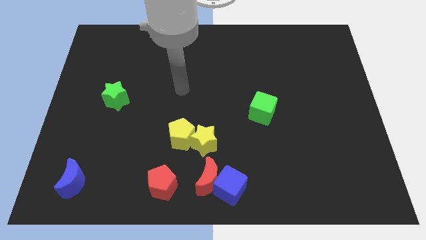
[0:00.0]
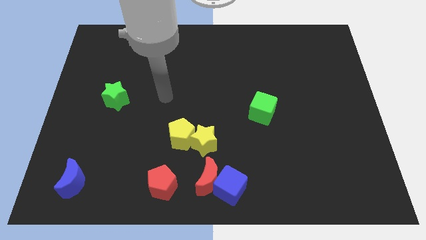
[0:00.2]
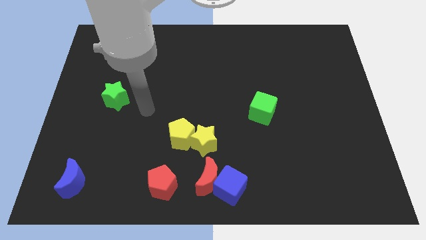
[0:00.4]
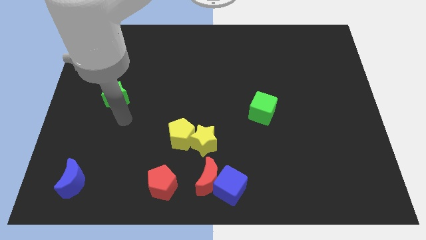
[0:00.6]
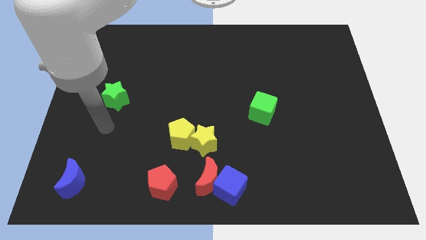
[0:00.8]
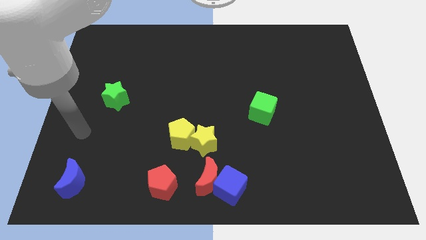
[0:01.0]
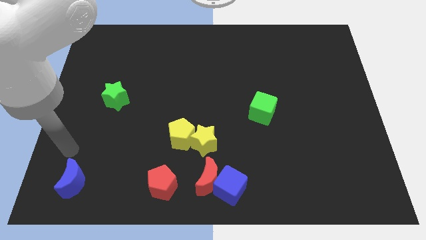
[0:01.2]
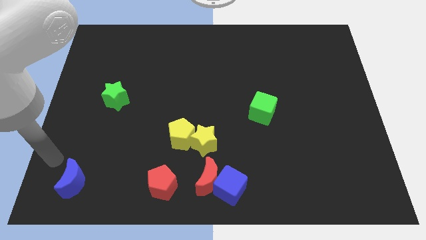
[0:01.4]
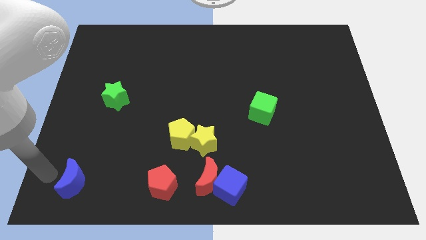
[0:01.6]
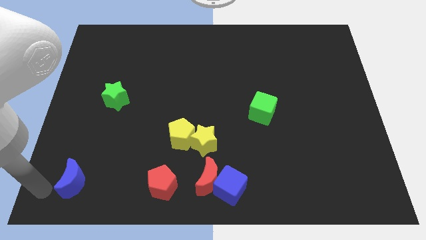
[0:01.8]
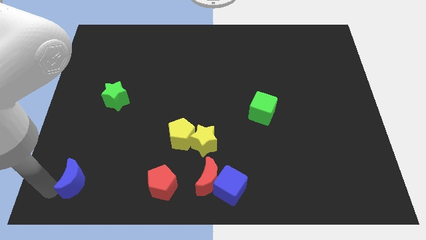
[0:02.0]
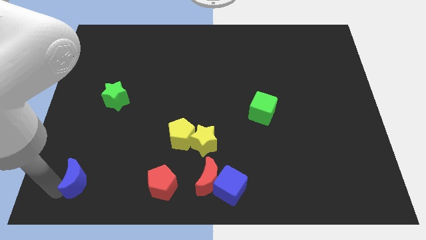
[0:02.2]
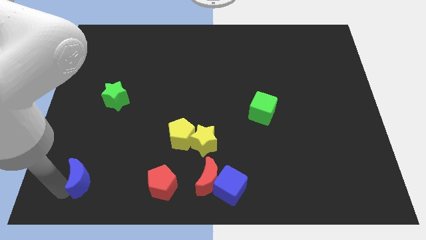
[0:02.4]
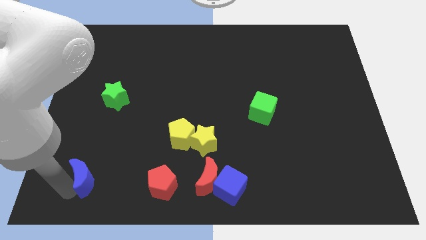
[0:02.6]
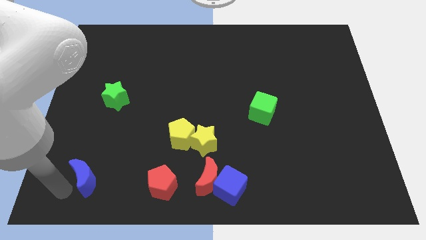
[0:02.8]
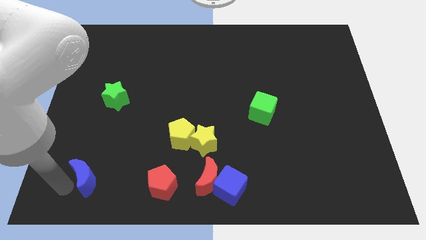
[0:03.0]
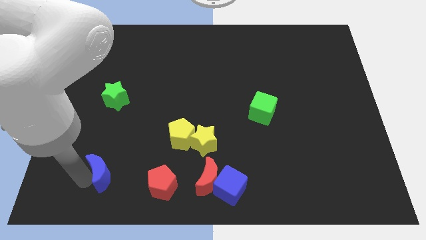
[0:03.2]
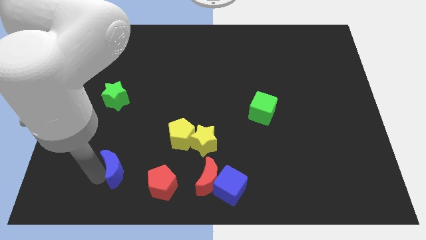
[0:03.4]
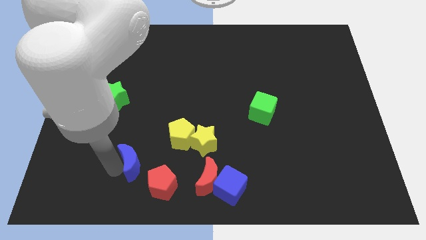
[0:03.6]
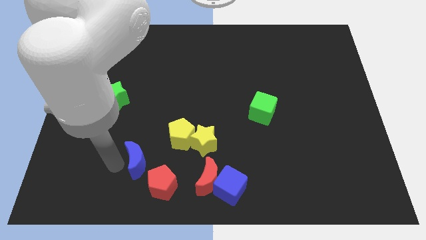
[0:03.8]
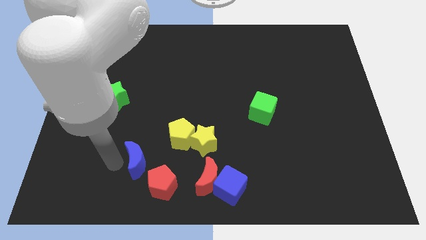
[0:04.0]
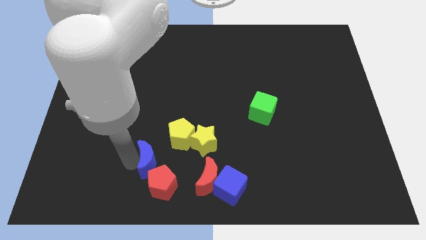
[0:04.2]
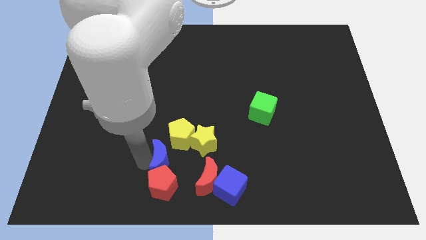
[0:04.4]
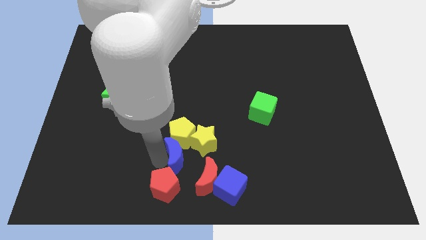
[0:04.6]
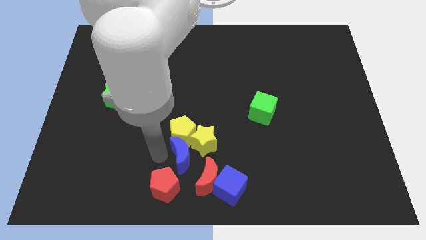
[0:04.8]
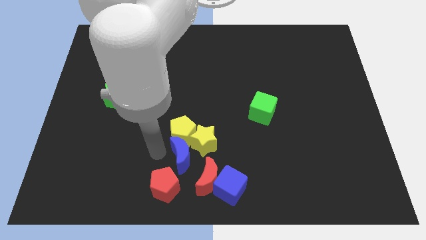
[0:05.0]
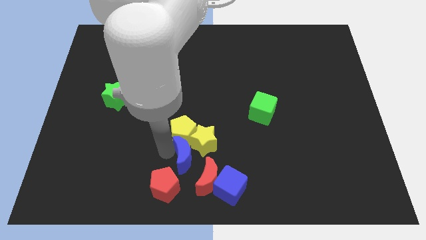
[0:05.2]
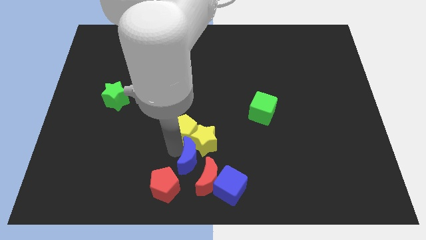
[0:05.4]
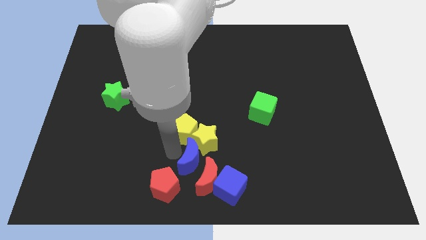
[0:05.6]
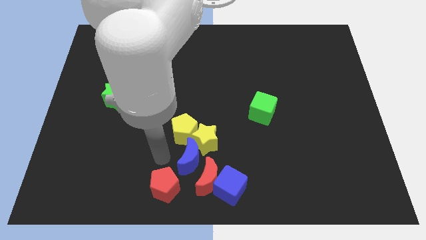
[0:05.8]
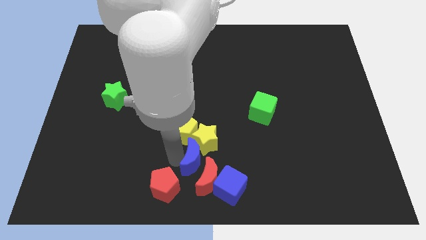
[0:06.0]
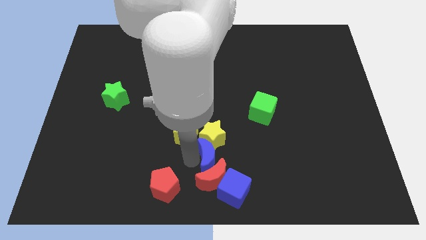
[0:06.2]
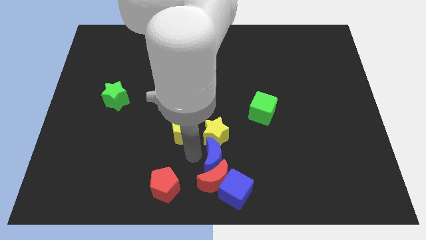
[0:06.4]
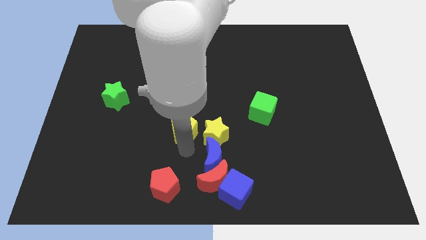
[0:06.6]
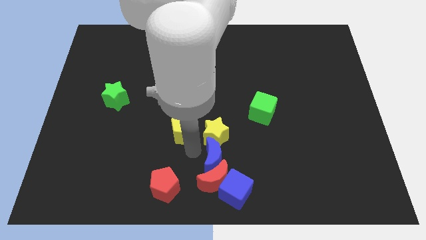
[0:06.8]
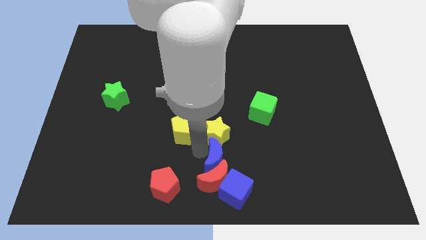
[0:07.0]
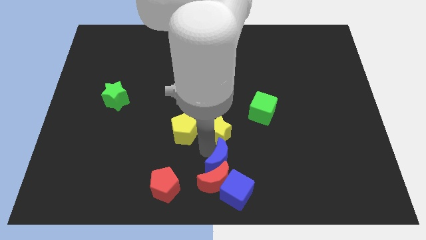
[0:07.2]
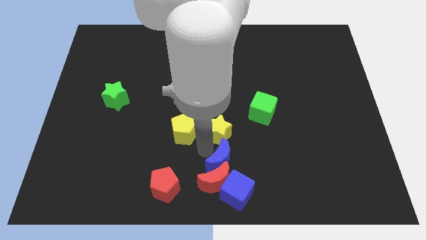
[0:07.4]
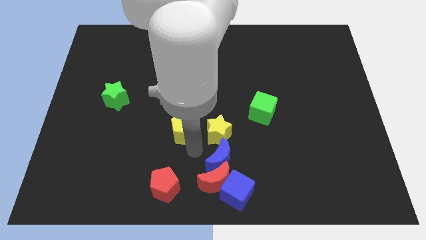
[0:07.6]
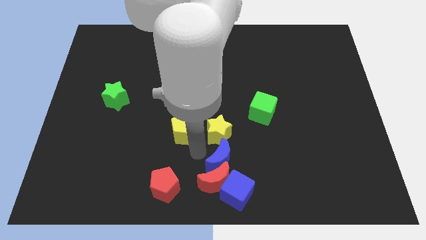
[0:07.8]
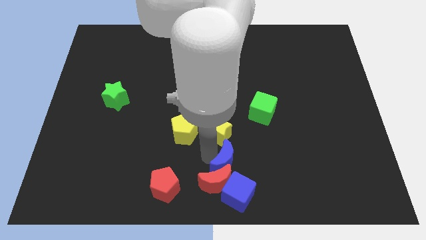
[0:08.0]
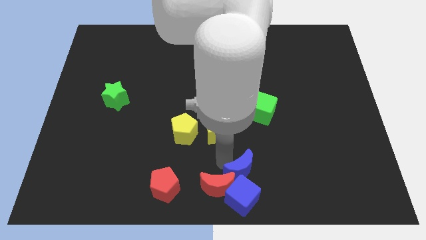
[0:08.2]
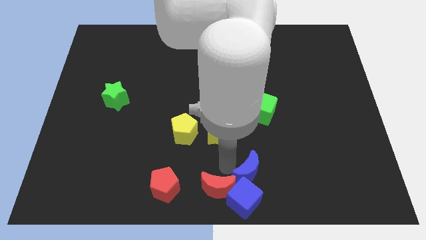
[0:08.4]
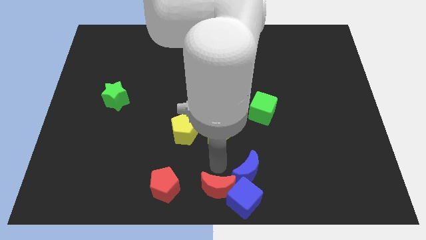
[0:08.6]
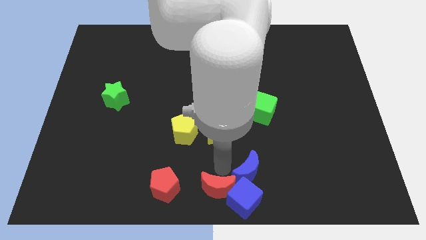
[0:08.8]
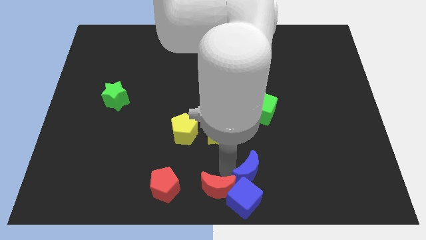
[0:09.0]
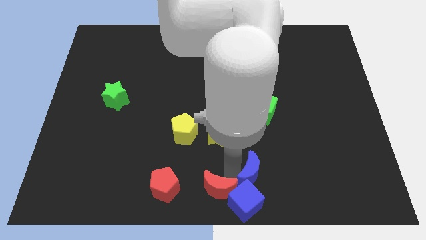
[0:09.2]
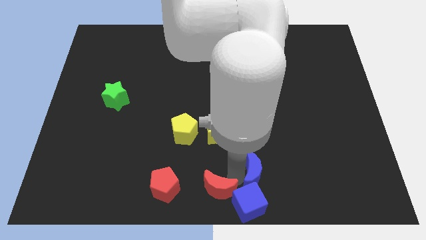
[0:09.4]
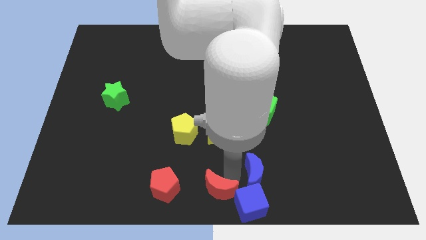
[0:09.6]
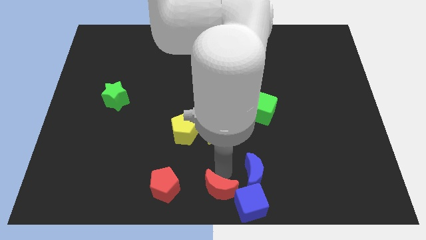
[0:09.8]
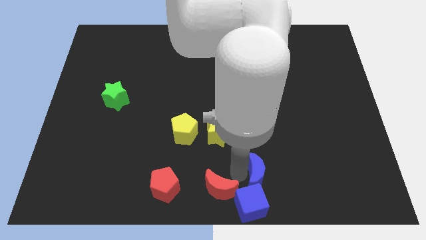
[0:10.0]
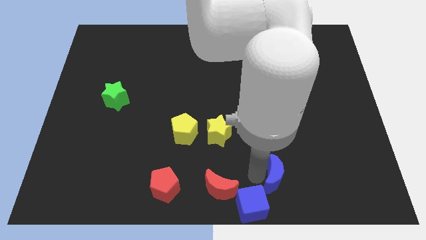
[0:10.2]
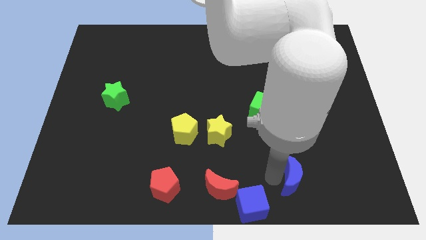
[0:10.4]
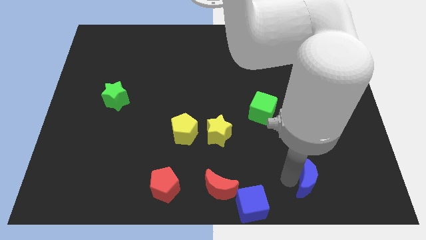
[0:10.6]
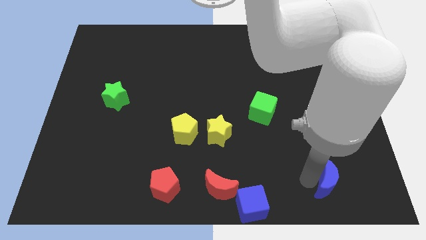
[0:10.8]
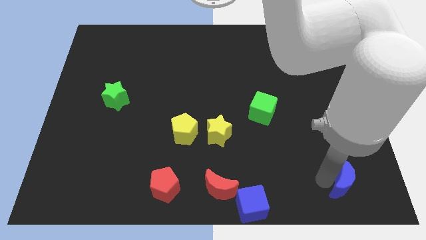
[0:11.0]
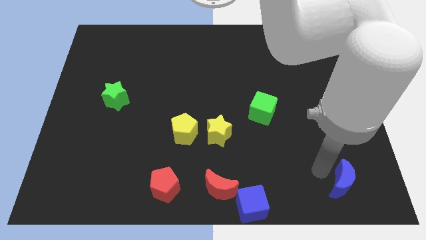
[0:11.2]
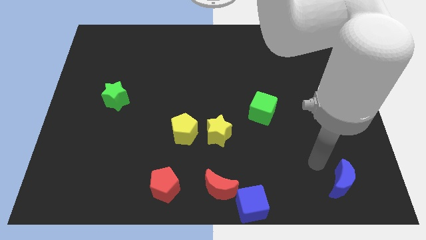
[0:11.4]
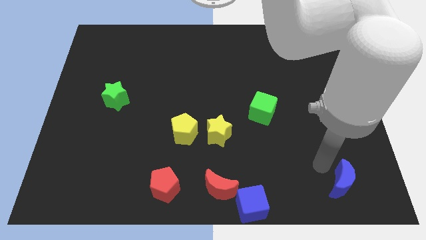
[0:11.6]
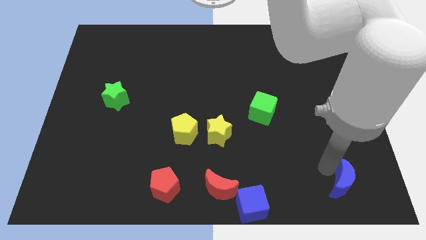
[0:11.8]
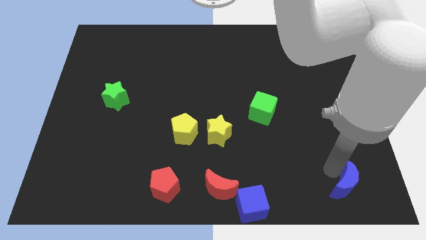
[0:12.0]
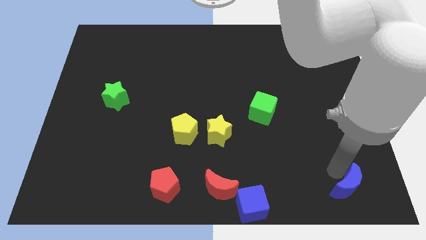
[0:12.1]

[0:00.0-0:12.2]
push the blue moon to the bottom right

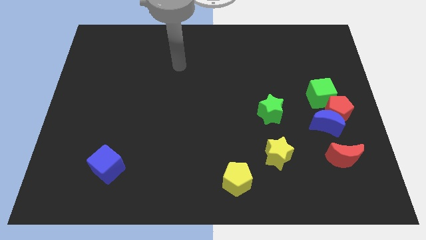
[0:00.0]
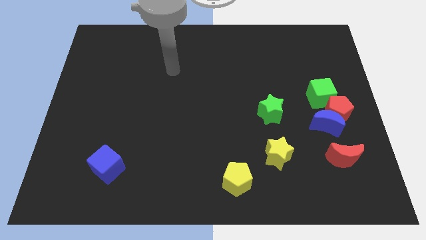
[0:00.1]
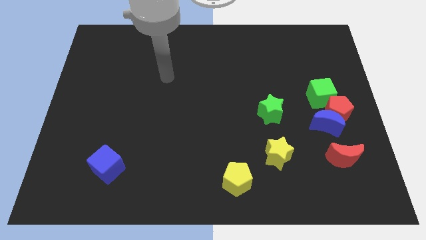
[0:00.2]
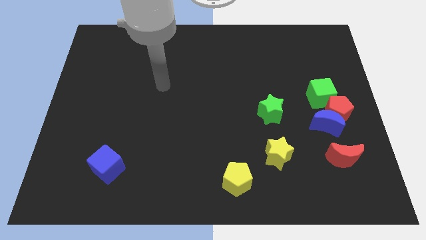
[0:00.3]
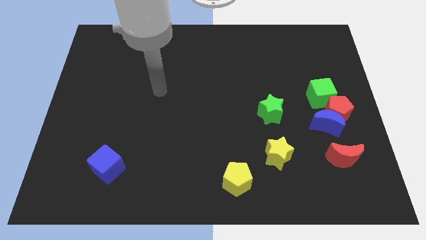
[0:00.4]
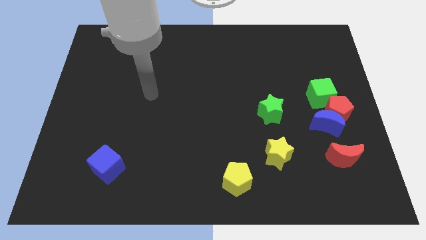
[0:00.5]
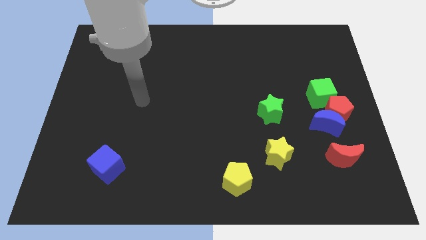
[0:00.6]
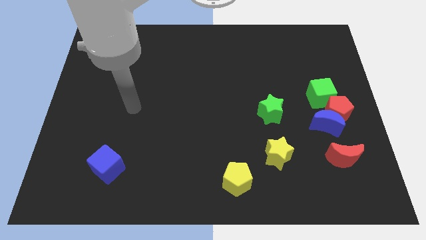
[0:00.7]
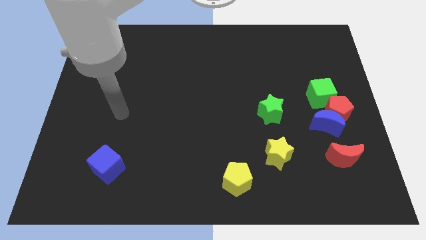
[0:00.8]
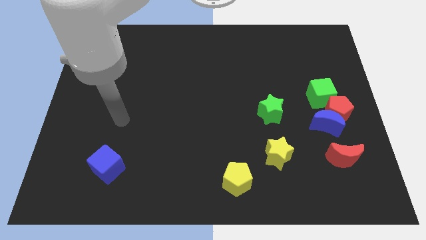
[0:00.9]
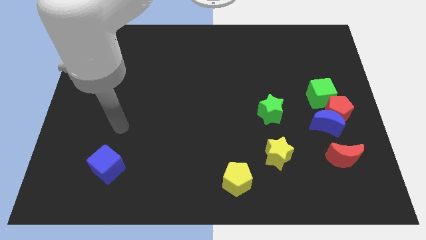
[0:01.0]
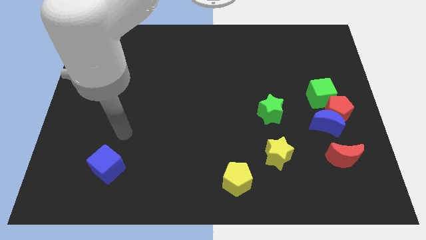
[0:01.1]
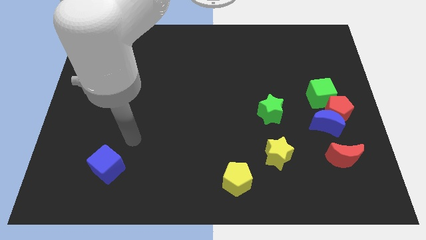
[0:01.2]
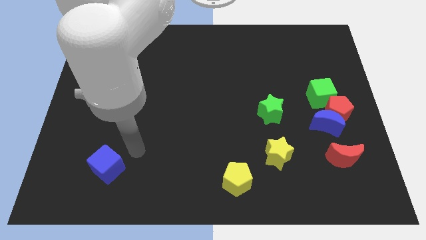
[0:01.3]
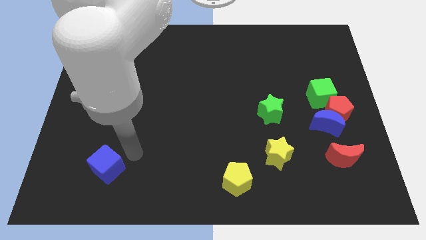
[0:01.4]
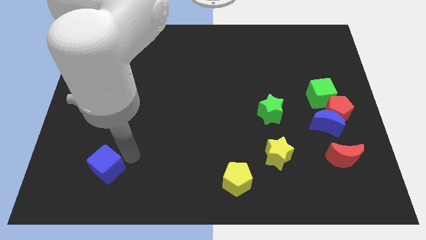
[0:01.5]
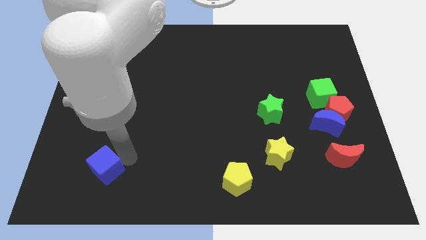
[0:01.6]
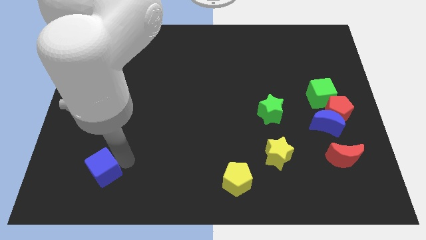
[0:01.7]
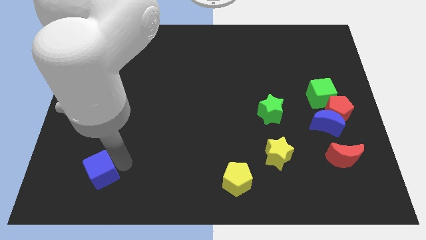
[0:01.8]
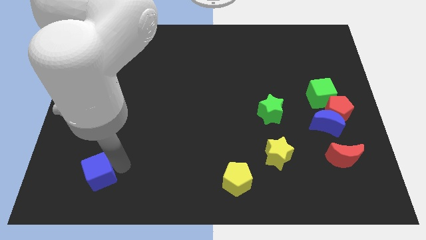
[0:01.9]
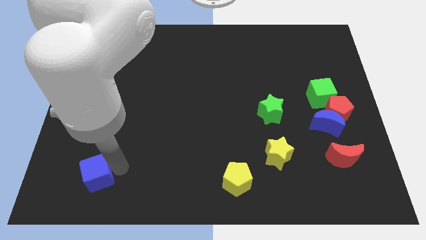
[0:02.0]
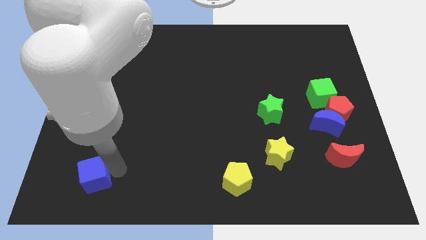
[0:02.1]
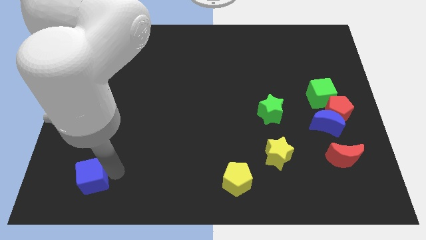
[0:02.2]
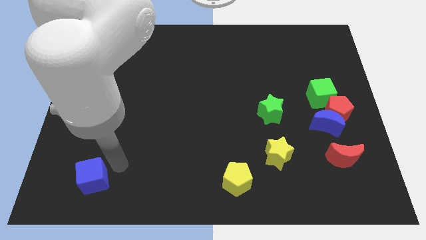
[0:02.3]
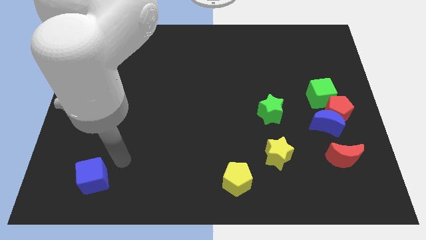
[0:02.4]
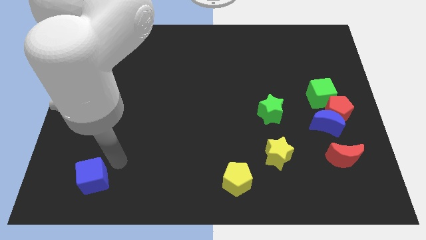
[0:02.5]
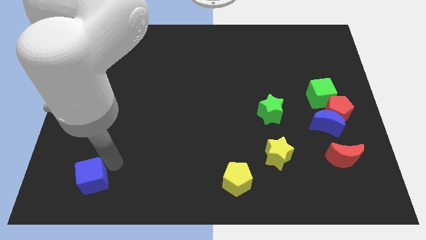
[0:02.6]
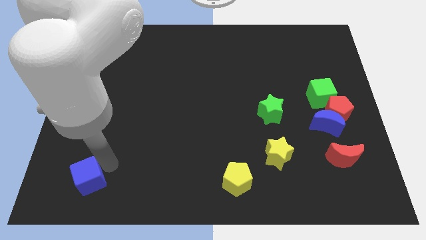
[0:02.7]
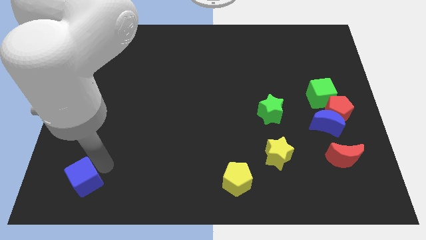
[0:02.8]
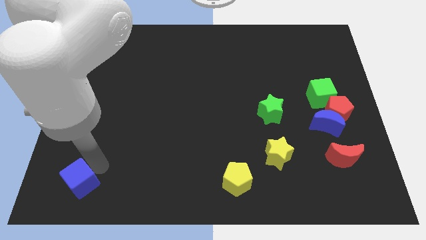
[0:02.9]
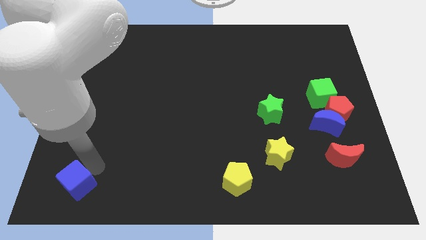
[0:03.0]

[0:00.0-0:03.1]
put the blue cube to the lower left corner
